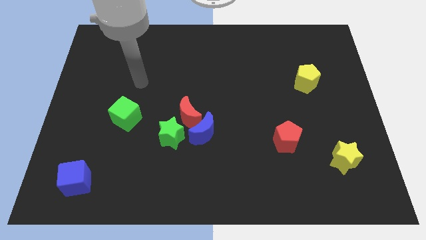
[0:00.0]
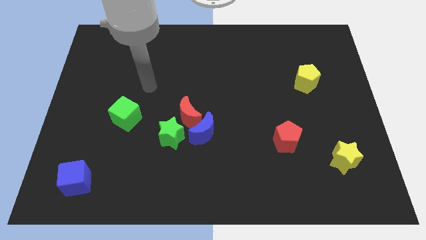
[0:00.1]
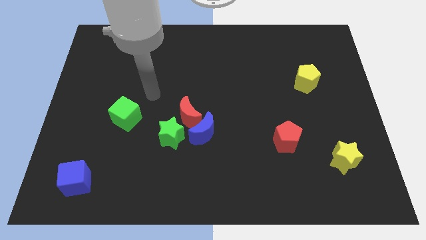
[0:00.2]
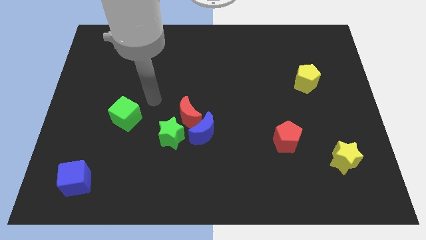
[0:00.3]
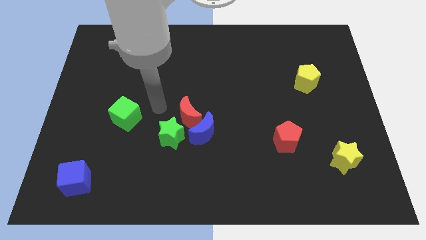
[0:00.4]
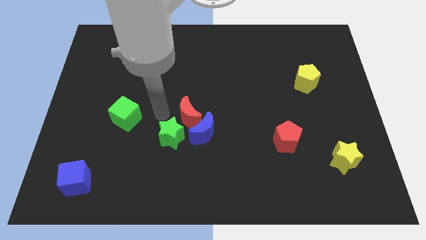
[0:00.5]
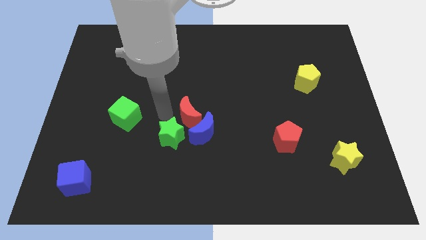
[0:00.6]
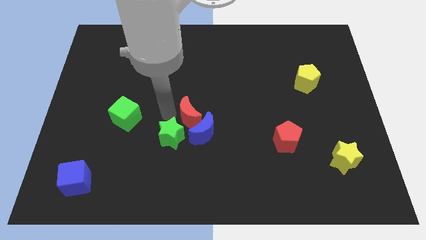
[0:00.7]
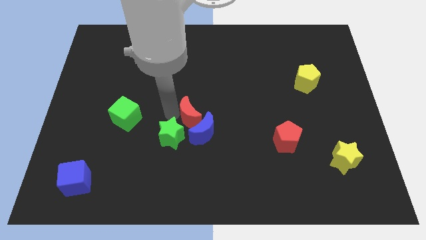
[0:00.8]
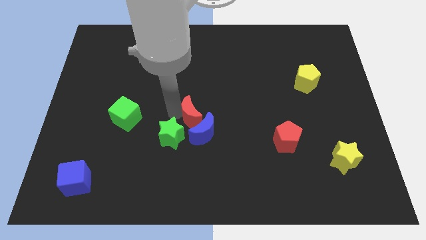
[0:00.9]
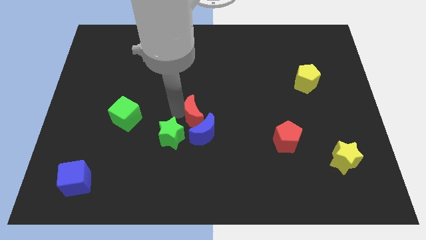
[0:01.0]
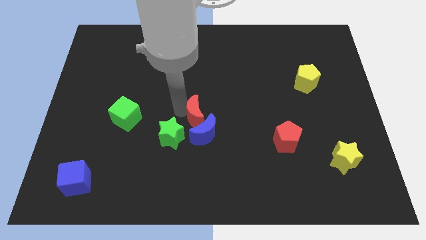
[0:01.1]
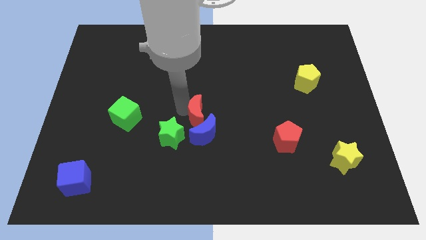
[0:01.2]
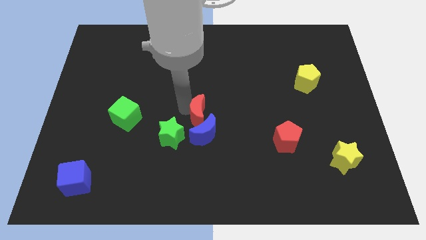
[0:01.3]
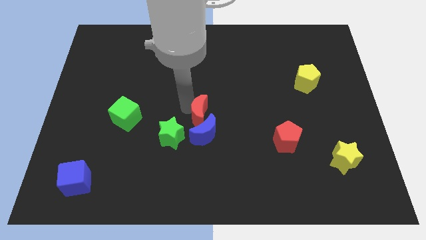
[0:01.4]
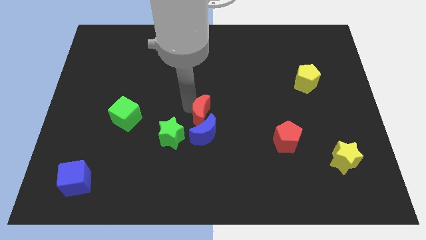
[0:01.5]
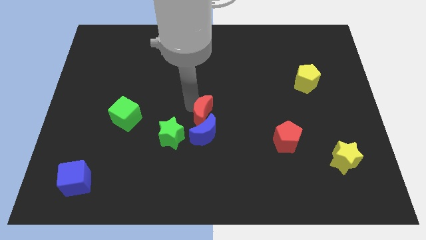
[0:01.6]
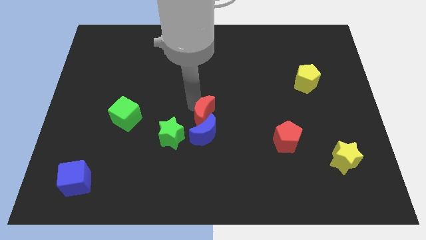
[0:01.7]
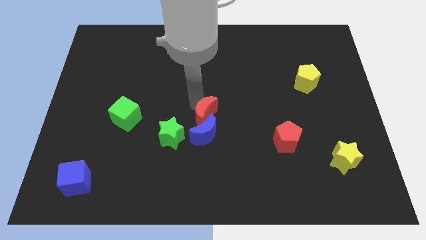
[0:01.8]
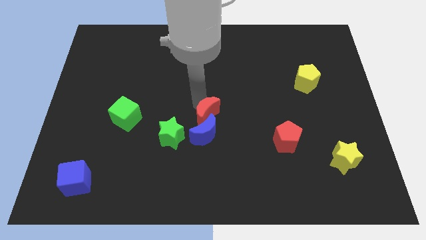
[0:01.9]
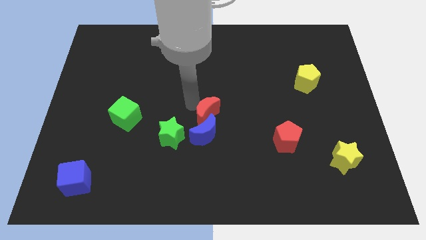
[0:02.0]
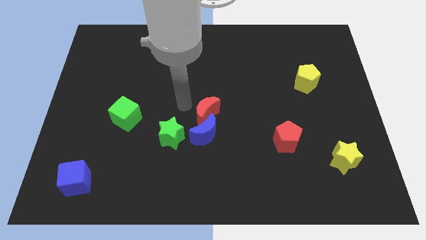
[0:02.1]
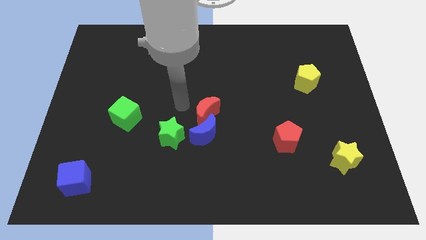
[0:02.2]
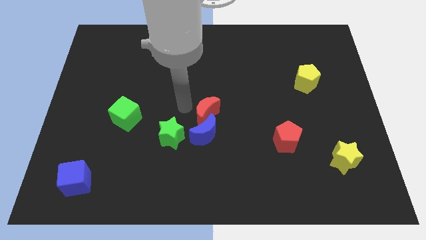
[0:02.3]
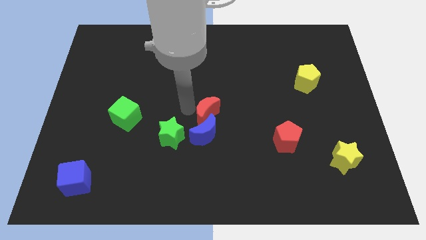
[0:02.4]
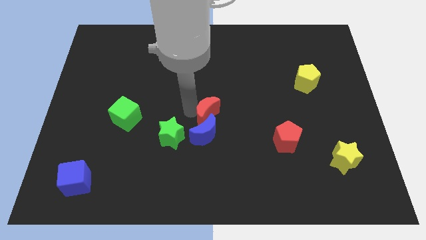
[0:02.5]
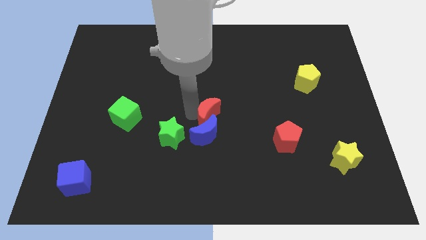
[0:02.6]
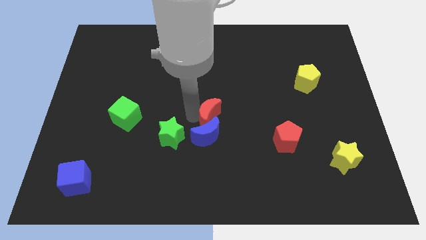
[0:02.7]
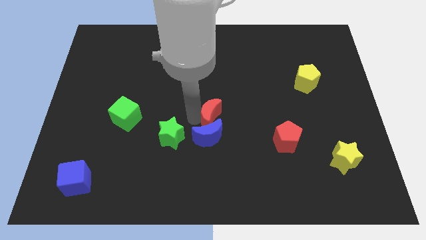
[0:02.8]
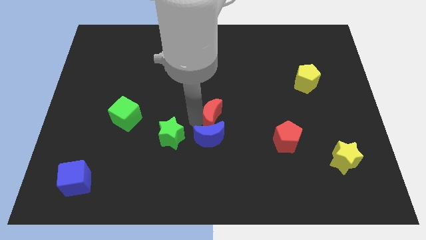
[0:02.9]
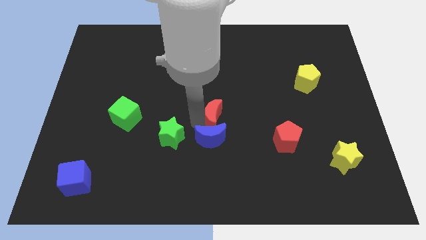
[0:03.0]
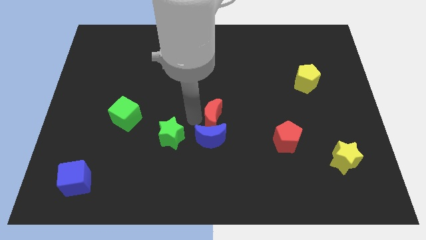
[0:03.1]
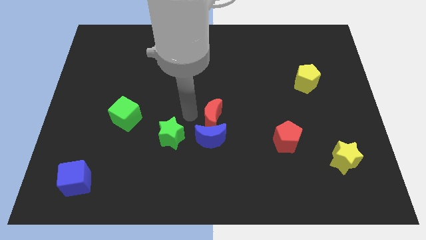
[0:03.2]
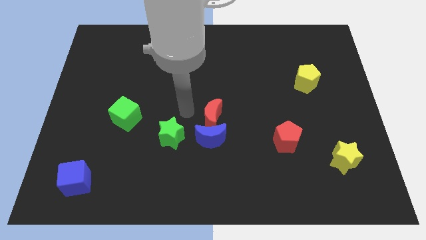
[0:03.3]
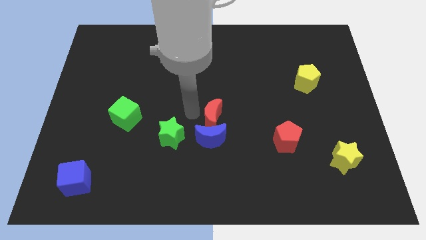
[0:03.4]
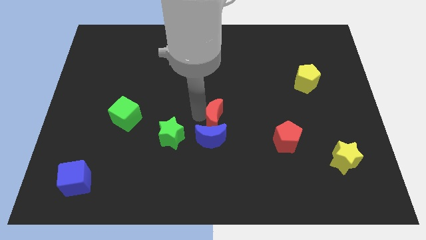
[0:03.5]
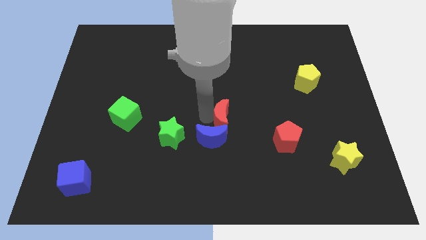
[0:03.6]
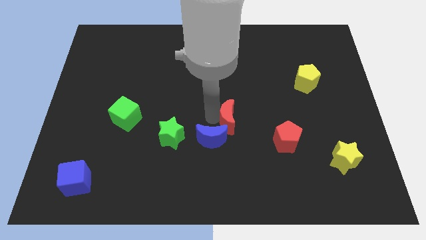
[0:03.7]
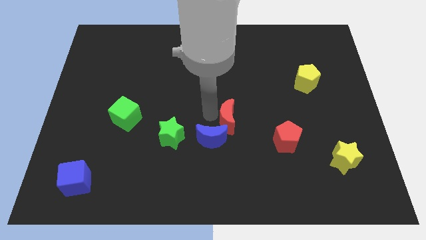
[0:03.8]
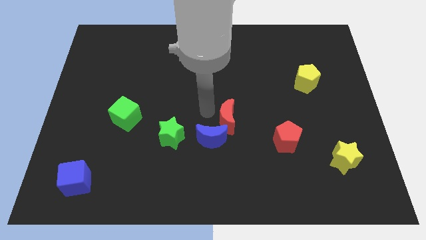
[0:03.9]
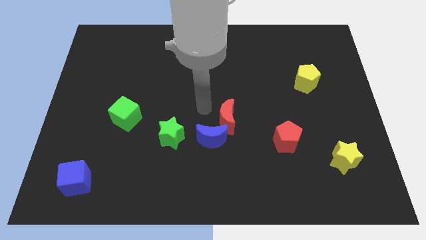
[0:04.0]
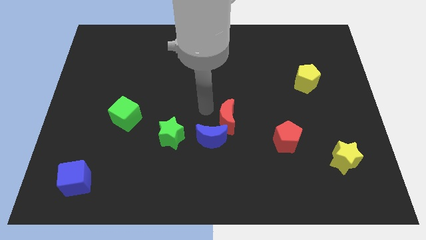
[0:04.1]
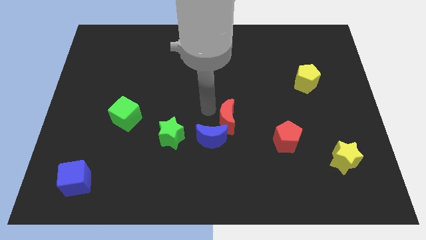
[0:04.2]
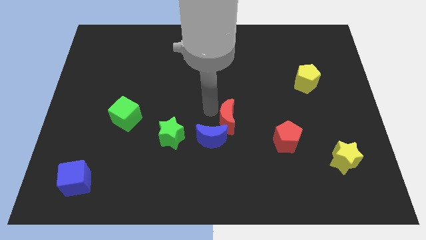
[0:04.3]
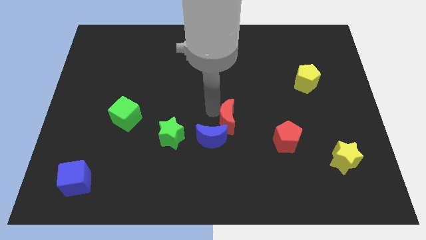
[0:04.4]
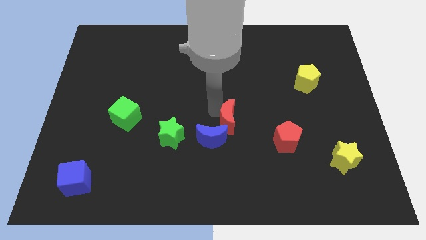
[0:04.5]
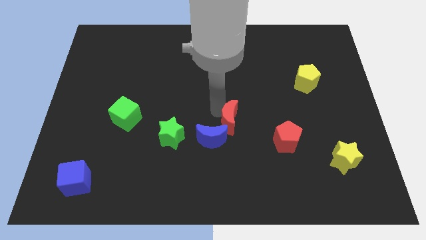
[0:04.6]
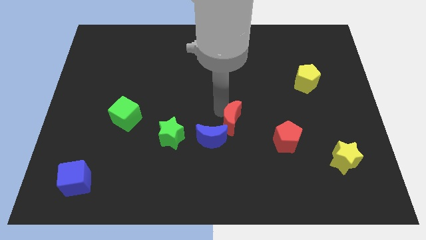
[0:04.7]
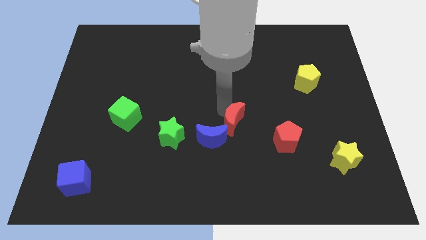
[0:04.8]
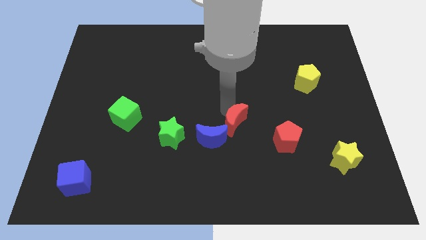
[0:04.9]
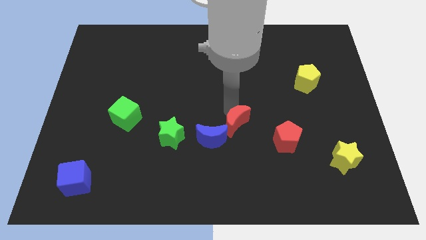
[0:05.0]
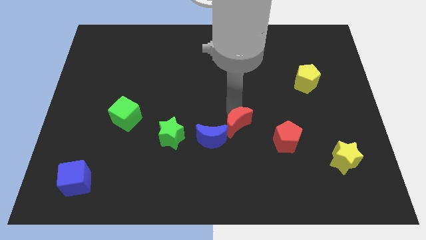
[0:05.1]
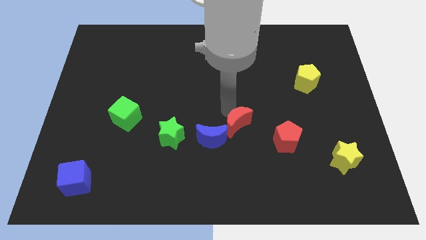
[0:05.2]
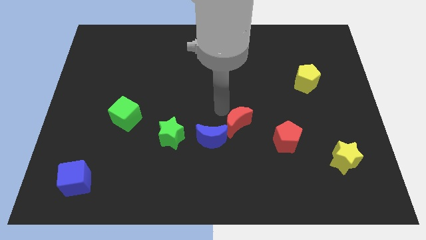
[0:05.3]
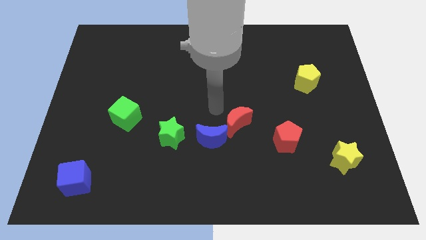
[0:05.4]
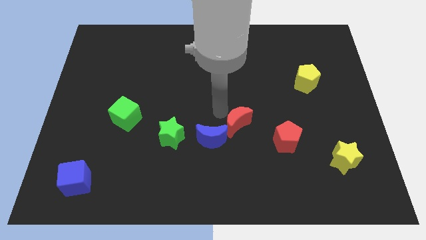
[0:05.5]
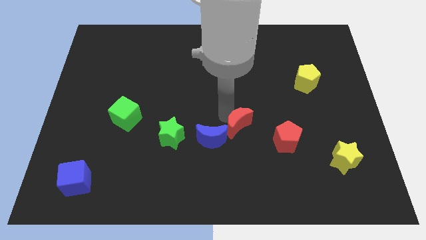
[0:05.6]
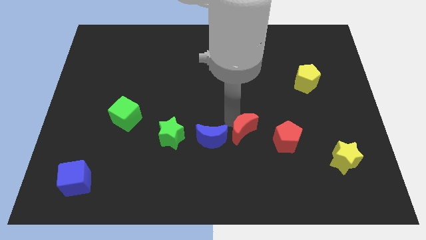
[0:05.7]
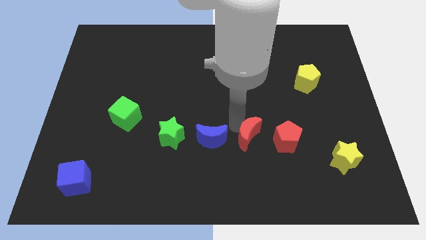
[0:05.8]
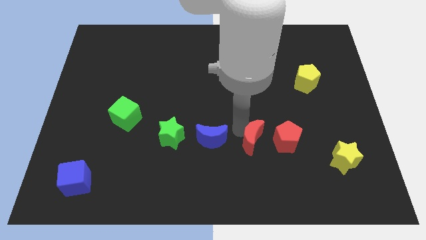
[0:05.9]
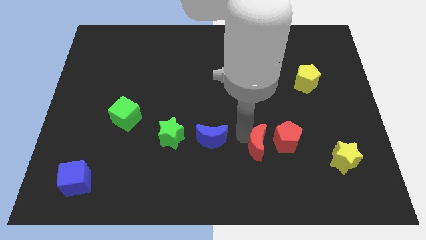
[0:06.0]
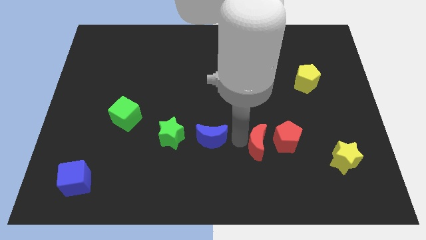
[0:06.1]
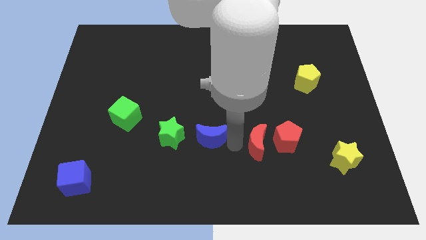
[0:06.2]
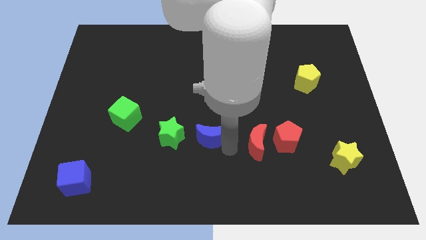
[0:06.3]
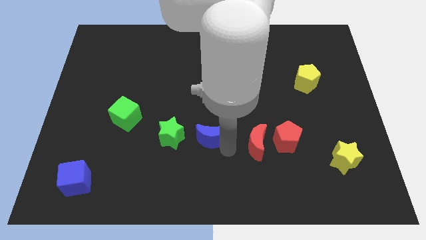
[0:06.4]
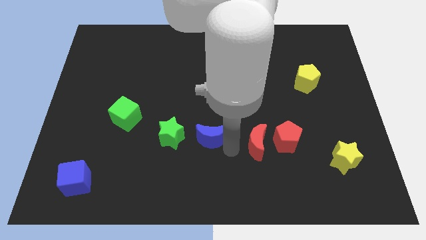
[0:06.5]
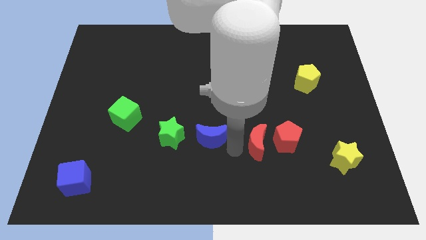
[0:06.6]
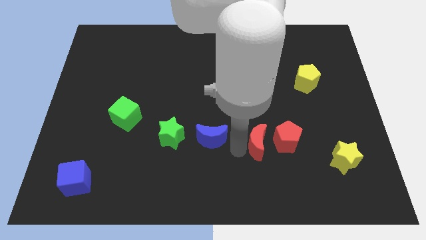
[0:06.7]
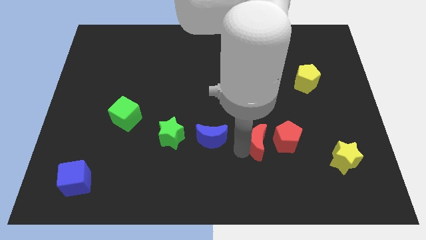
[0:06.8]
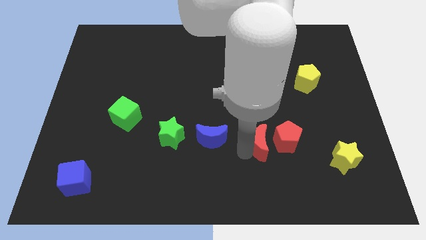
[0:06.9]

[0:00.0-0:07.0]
put the red moon towards the red pentagon
